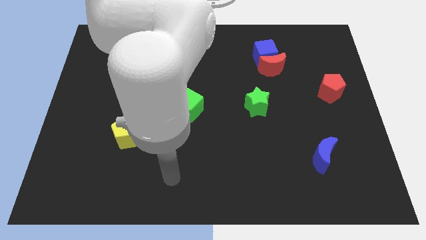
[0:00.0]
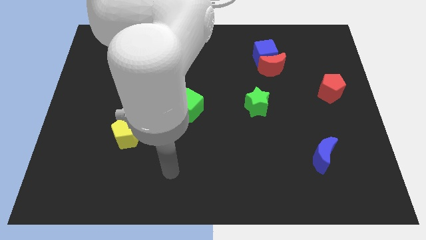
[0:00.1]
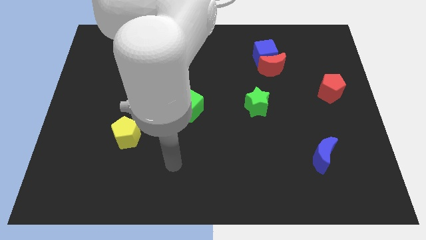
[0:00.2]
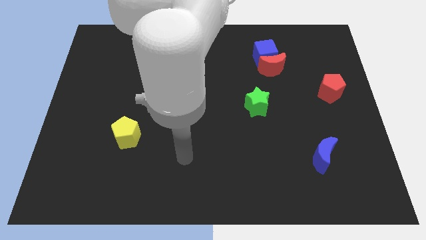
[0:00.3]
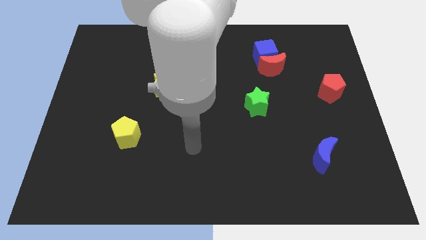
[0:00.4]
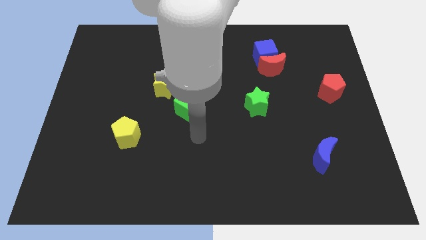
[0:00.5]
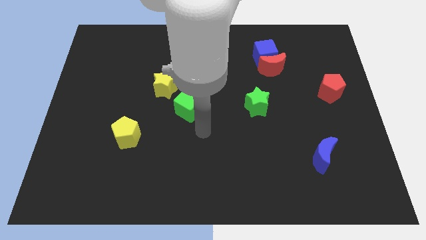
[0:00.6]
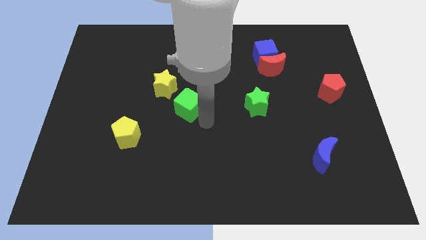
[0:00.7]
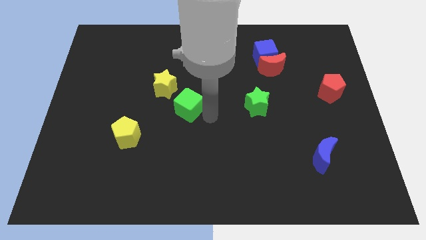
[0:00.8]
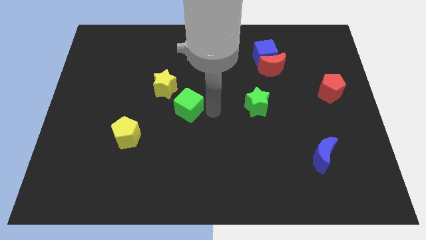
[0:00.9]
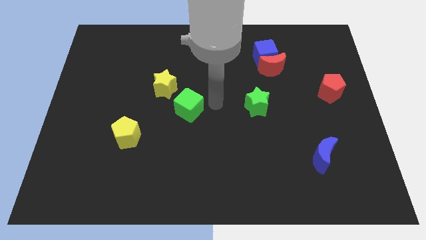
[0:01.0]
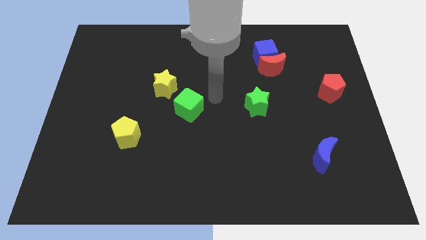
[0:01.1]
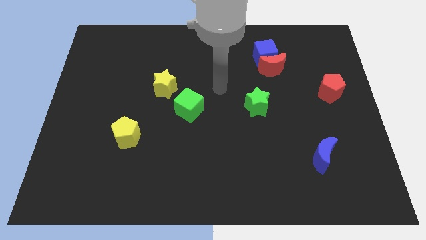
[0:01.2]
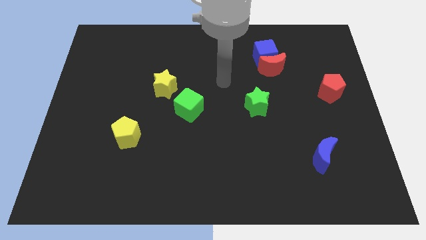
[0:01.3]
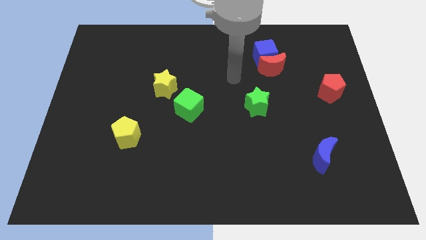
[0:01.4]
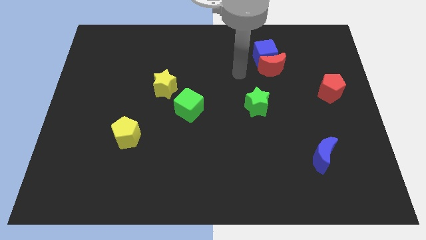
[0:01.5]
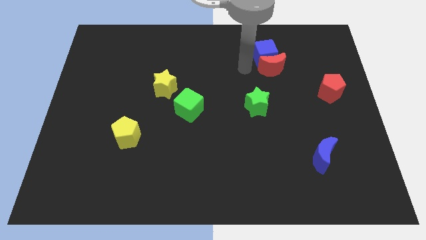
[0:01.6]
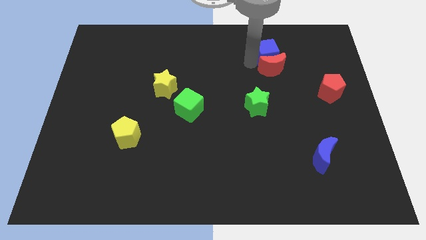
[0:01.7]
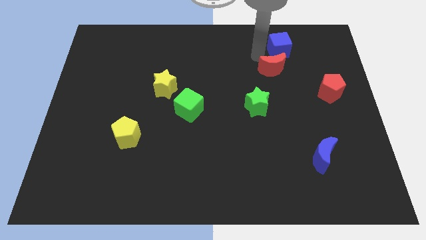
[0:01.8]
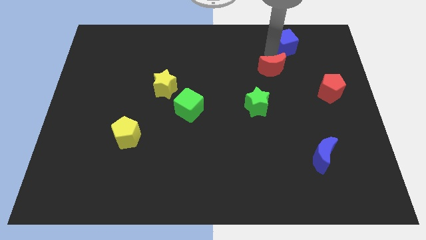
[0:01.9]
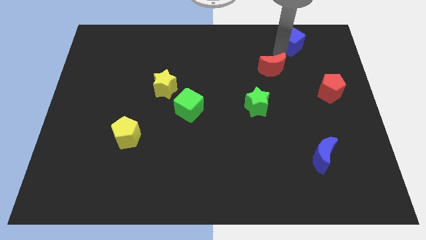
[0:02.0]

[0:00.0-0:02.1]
separate the red moon from the blue cube

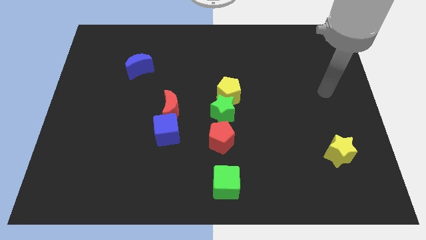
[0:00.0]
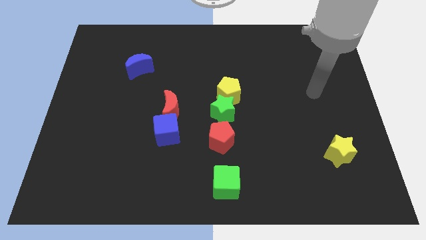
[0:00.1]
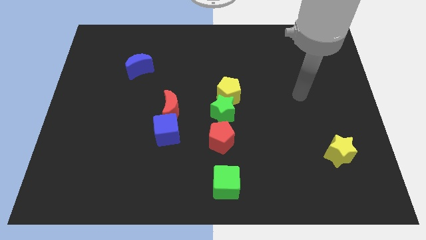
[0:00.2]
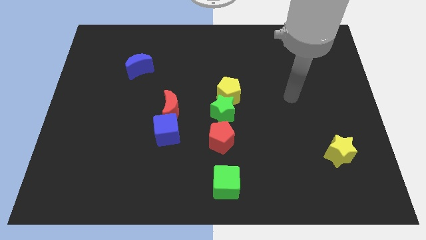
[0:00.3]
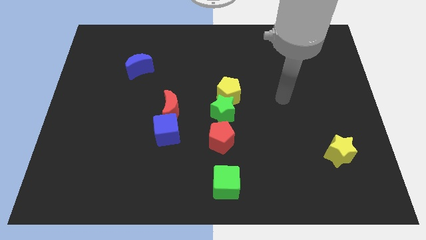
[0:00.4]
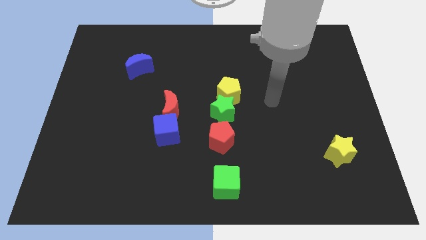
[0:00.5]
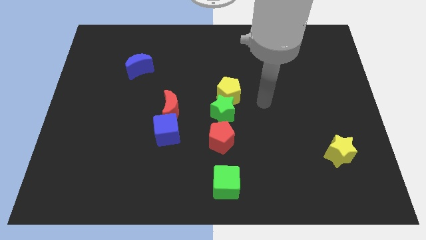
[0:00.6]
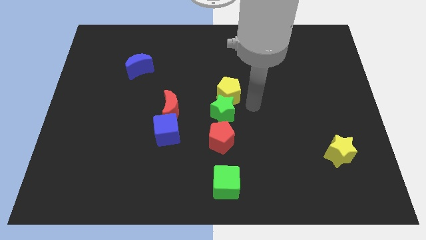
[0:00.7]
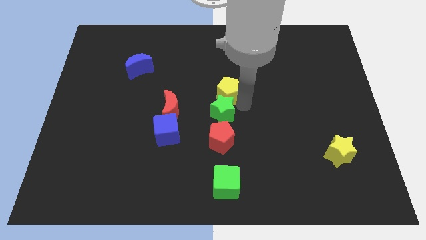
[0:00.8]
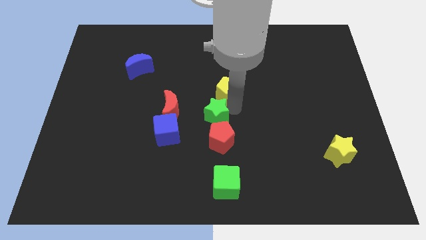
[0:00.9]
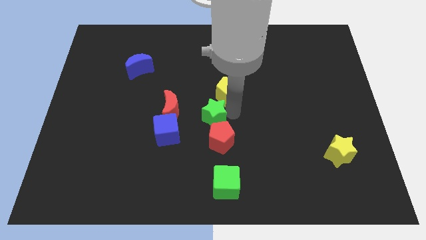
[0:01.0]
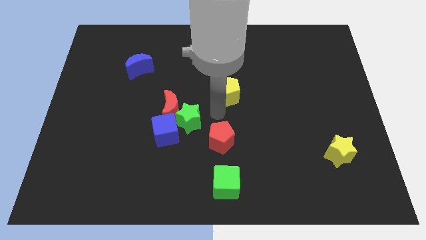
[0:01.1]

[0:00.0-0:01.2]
move the yellow pentagon away from the green star

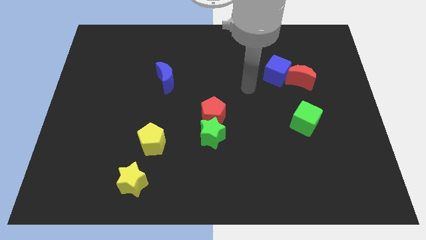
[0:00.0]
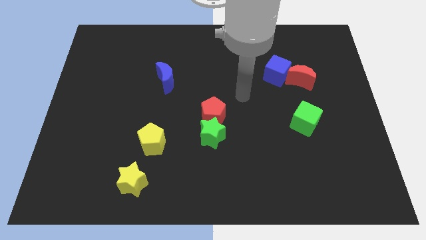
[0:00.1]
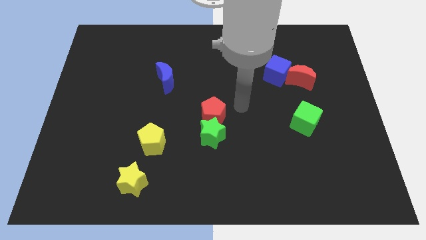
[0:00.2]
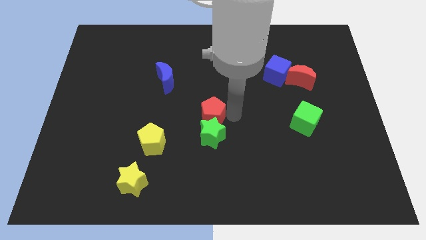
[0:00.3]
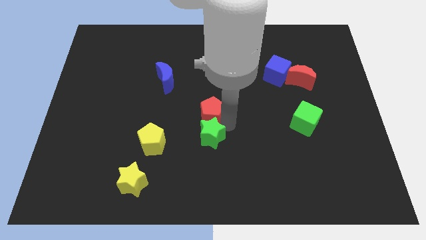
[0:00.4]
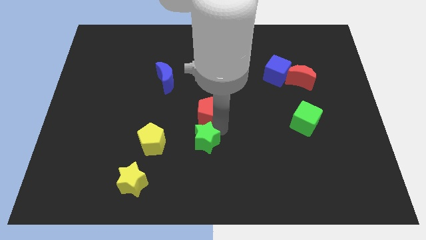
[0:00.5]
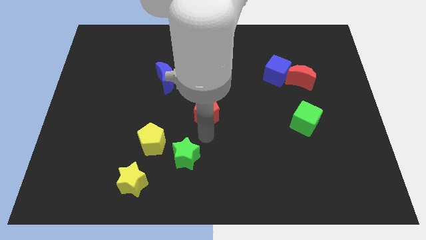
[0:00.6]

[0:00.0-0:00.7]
move the red pentagon away from the green star

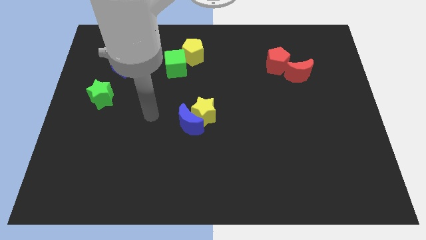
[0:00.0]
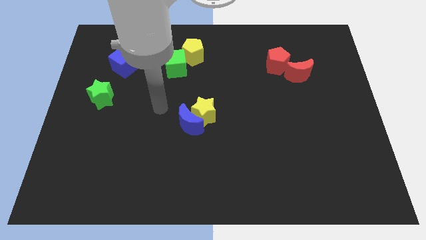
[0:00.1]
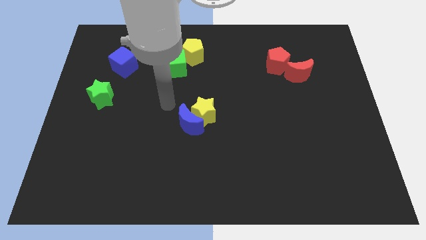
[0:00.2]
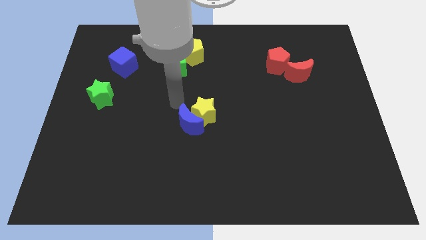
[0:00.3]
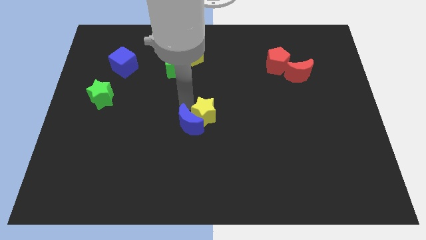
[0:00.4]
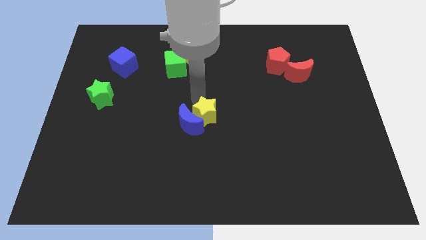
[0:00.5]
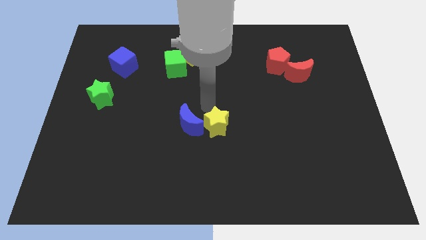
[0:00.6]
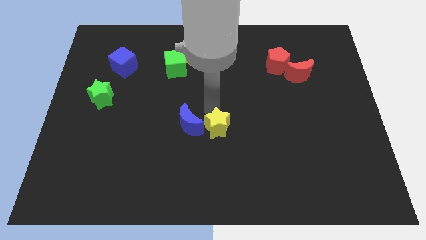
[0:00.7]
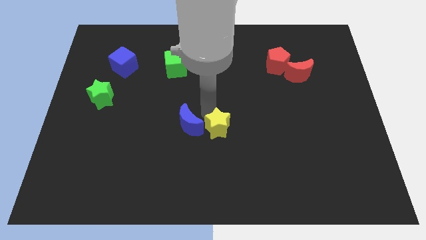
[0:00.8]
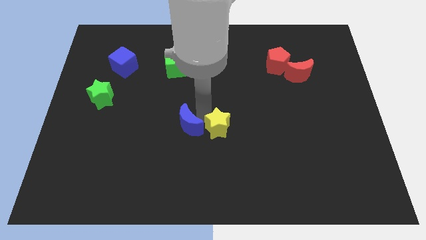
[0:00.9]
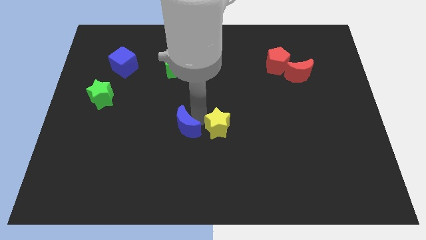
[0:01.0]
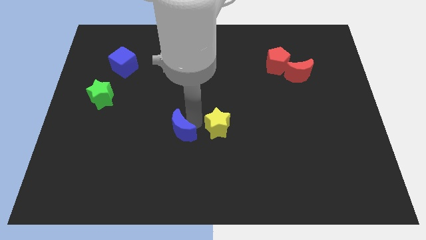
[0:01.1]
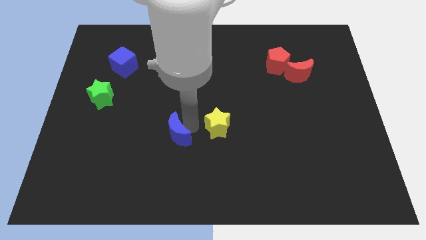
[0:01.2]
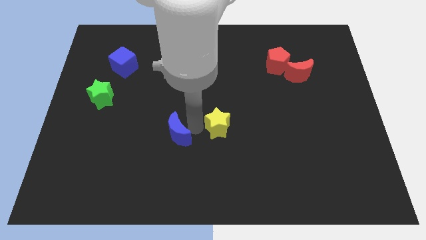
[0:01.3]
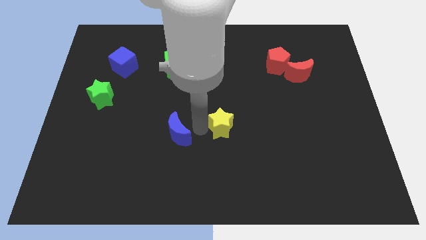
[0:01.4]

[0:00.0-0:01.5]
separate the blue moon from the yellow star

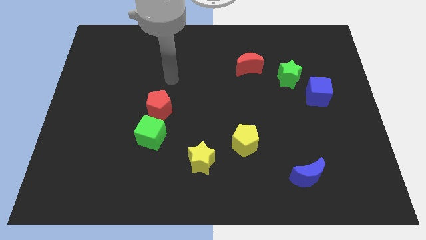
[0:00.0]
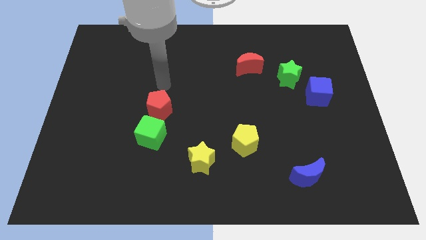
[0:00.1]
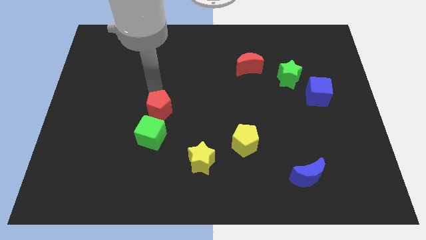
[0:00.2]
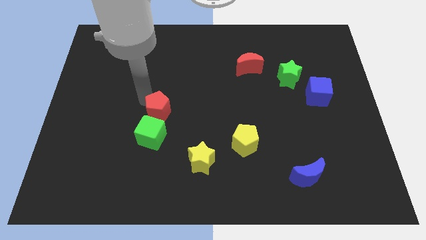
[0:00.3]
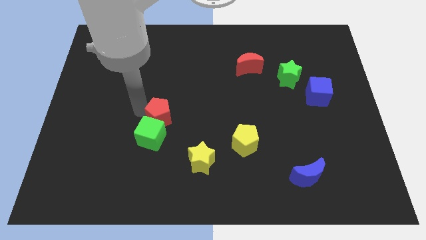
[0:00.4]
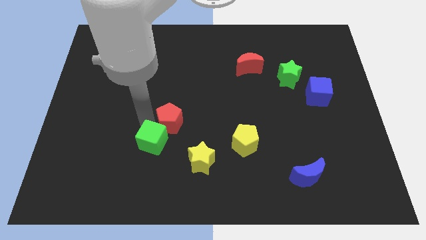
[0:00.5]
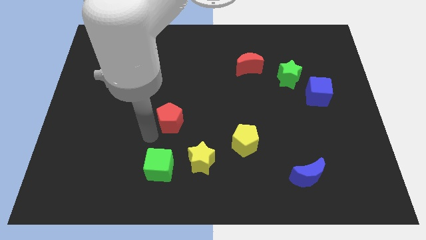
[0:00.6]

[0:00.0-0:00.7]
separate the red pentagon from the green cube

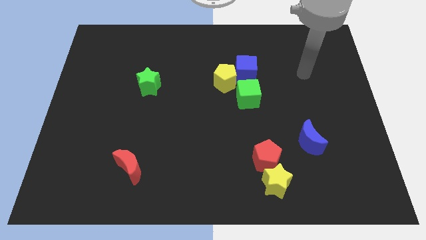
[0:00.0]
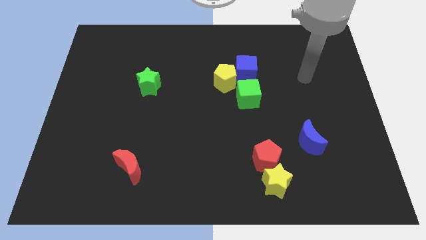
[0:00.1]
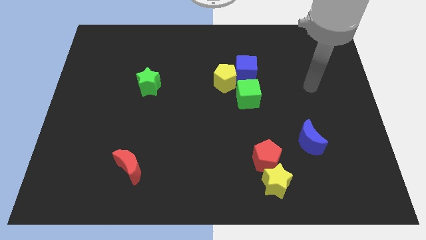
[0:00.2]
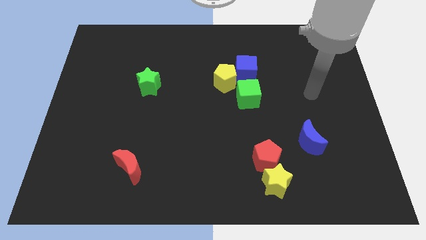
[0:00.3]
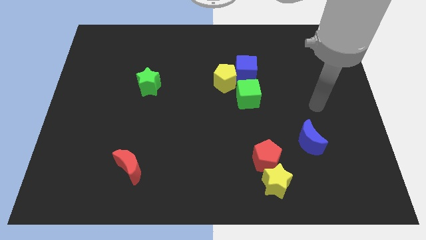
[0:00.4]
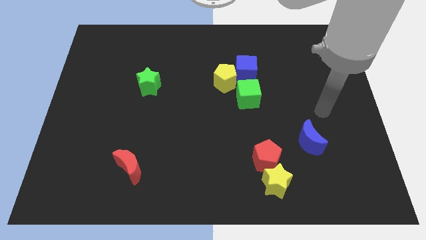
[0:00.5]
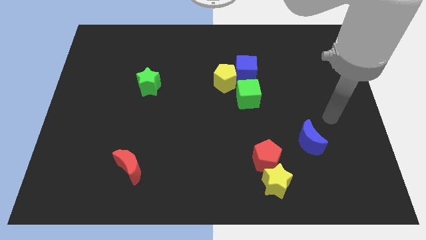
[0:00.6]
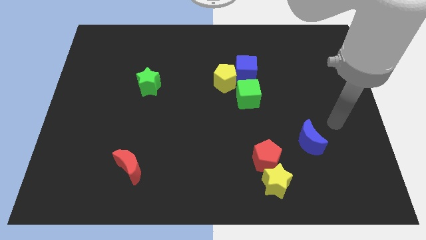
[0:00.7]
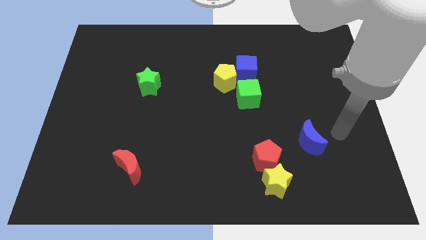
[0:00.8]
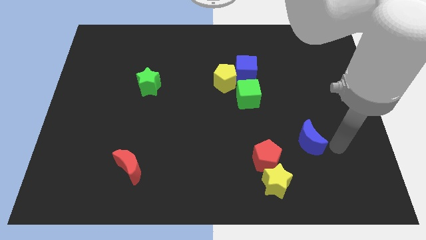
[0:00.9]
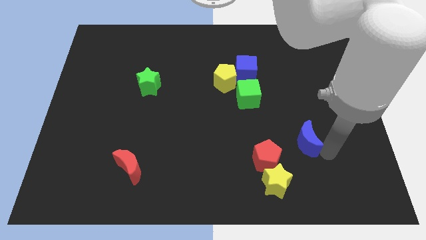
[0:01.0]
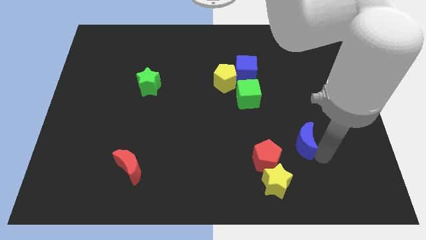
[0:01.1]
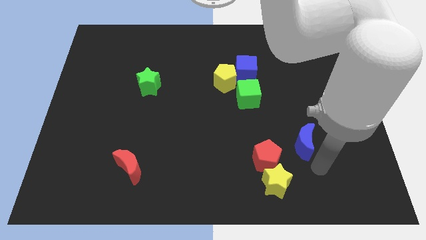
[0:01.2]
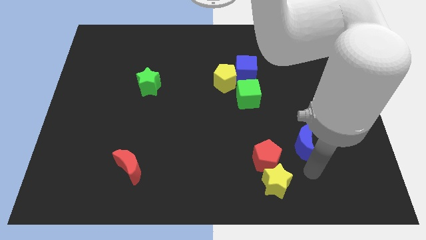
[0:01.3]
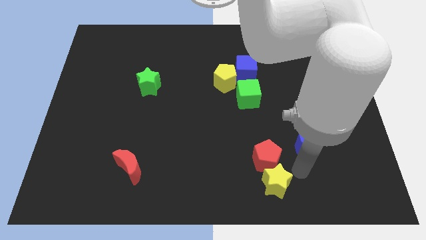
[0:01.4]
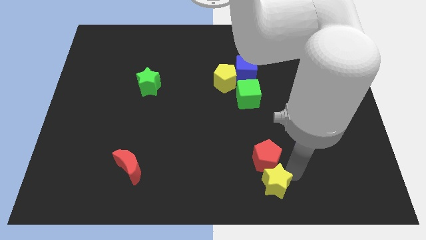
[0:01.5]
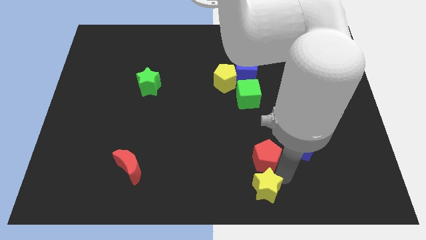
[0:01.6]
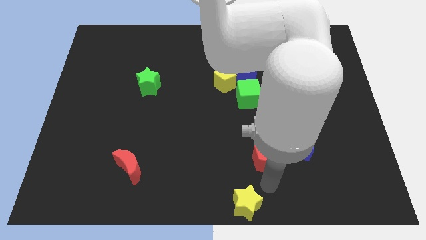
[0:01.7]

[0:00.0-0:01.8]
move the red pentagon away from the yellow star

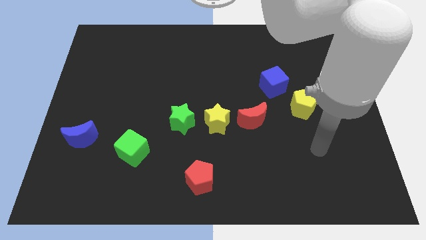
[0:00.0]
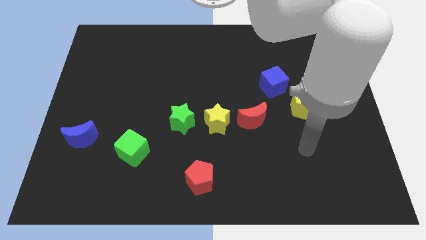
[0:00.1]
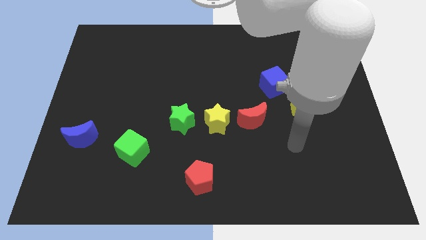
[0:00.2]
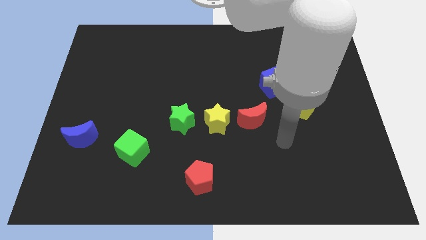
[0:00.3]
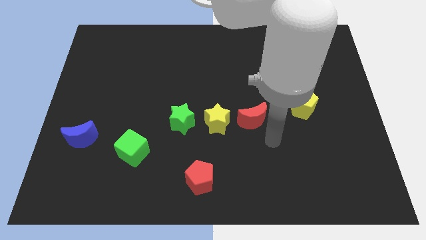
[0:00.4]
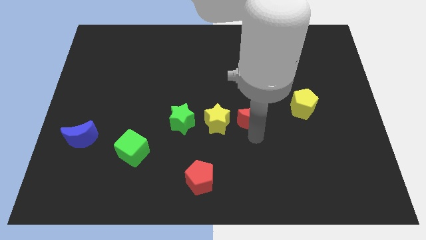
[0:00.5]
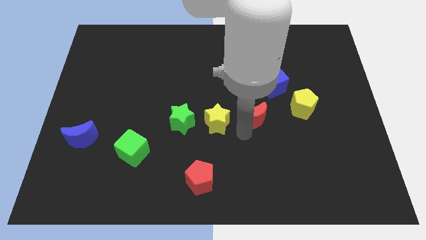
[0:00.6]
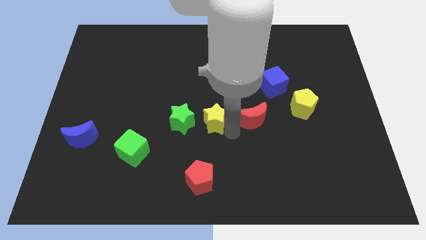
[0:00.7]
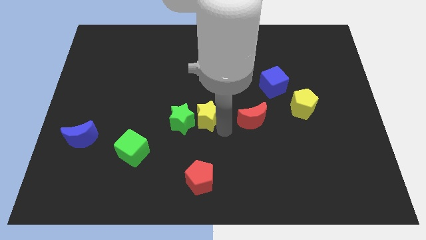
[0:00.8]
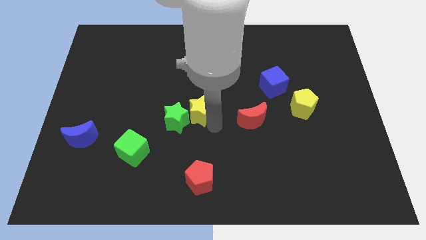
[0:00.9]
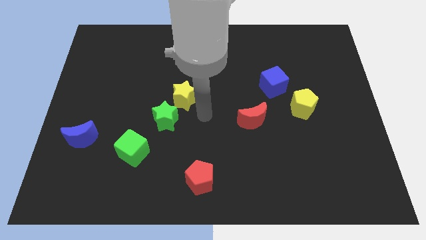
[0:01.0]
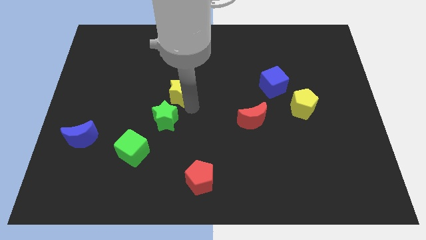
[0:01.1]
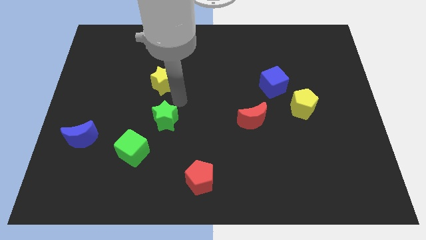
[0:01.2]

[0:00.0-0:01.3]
move the green star away from the yellow star
